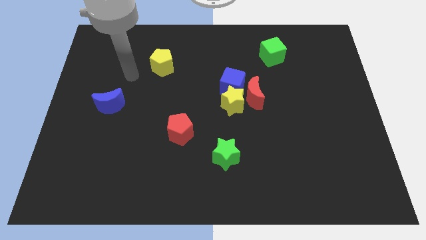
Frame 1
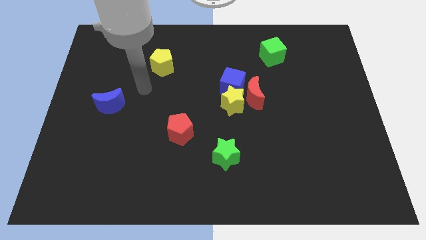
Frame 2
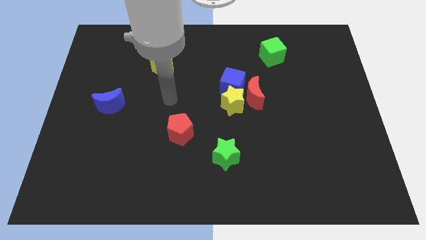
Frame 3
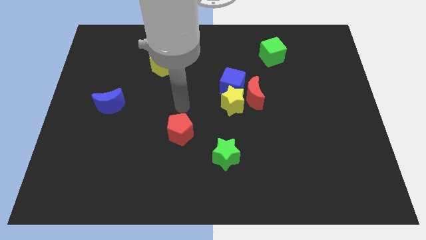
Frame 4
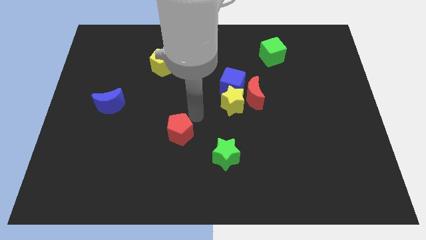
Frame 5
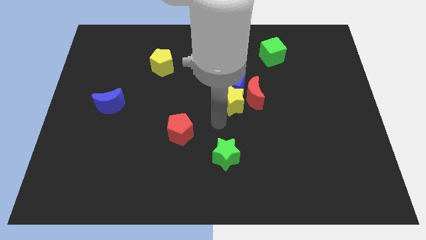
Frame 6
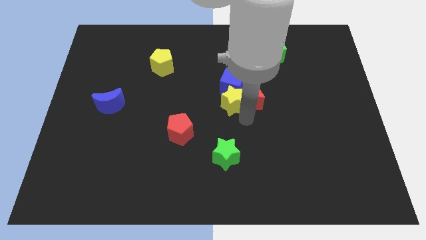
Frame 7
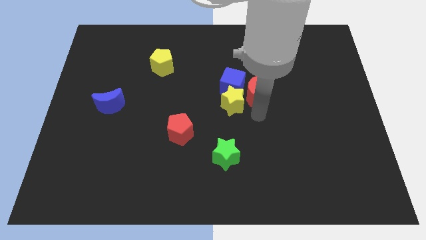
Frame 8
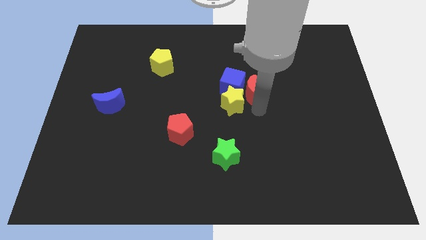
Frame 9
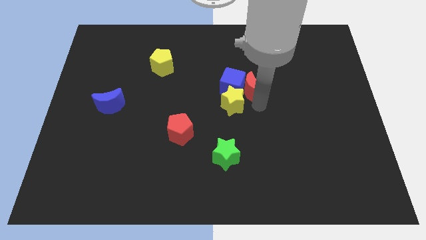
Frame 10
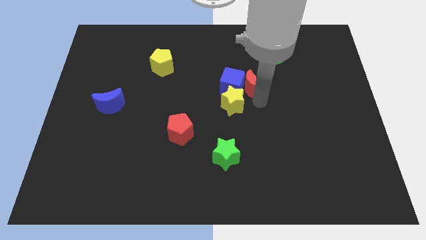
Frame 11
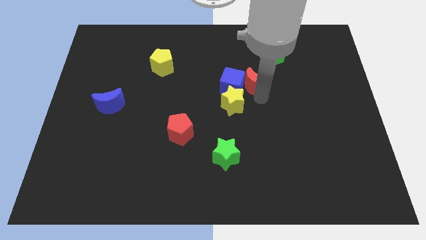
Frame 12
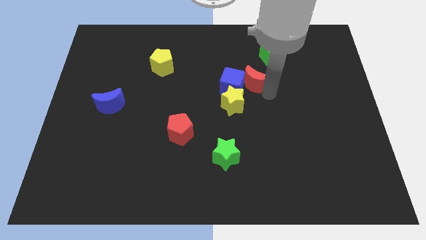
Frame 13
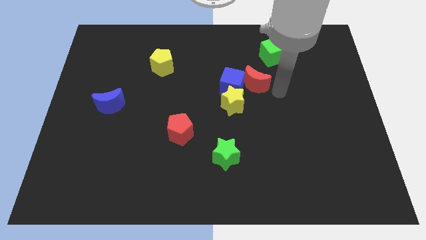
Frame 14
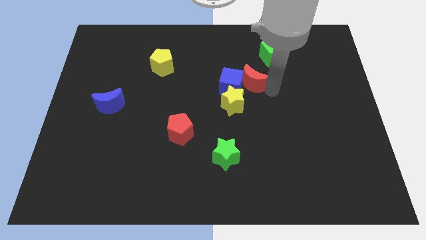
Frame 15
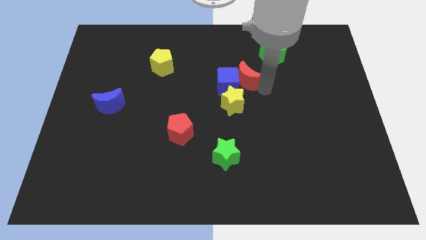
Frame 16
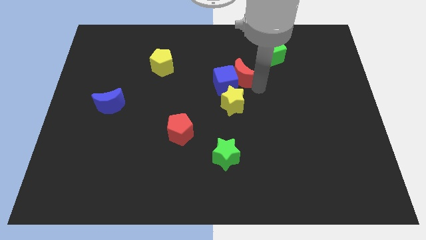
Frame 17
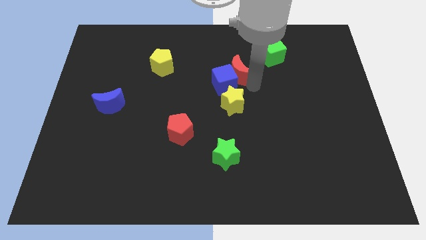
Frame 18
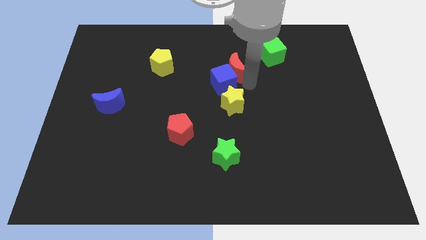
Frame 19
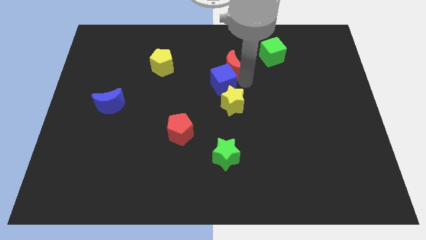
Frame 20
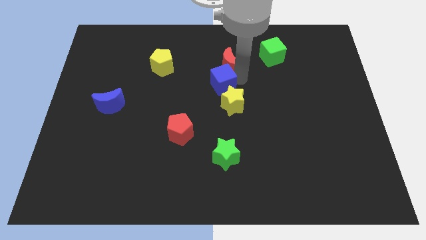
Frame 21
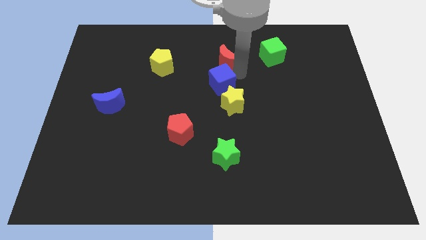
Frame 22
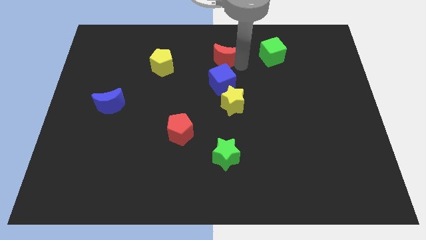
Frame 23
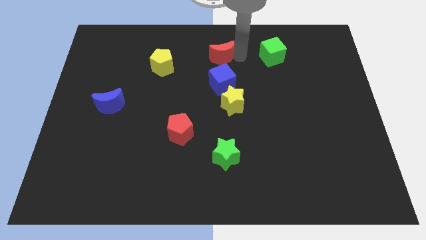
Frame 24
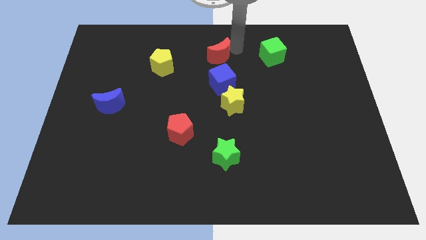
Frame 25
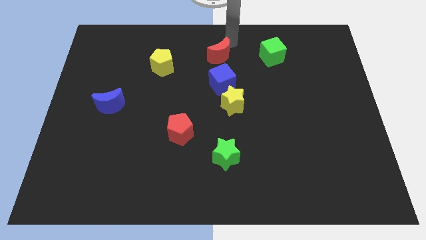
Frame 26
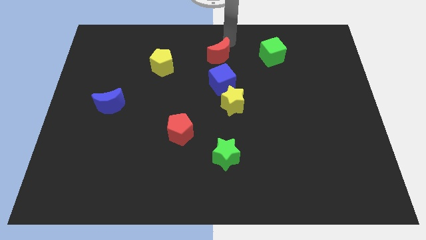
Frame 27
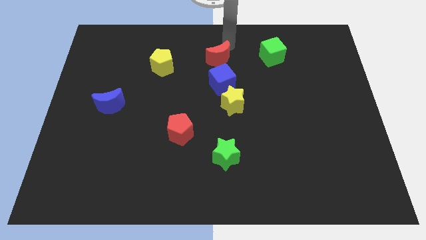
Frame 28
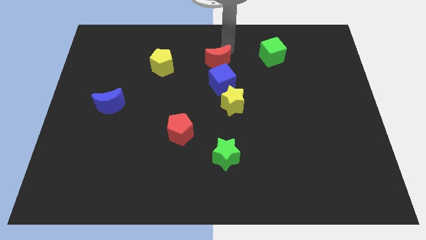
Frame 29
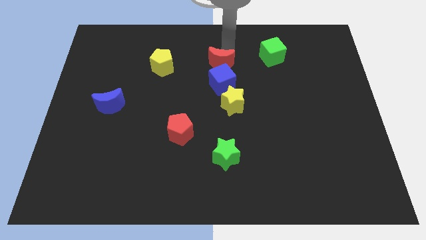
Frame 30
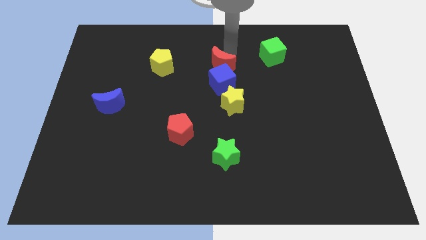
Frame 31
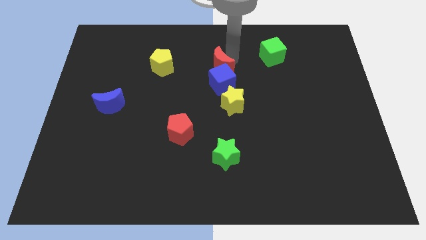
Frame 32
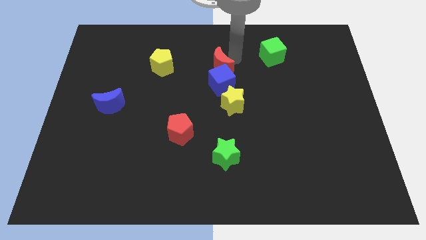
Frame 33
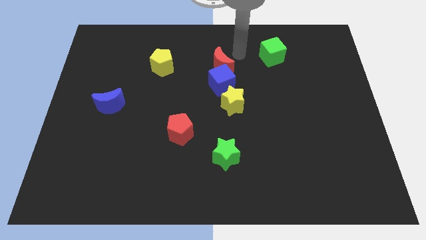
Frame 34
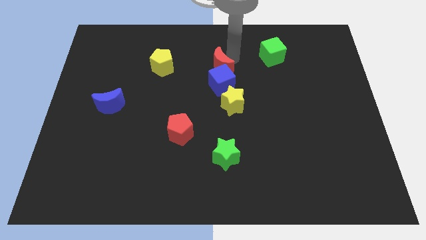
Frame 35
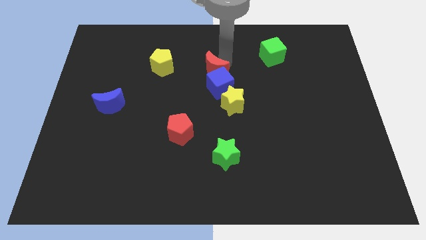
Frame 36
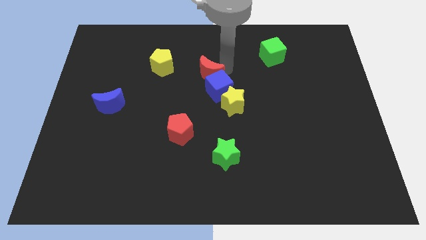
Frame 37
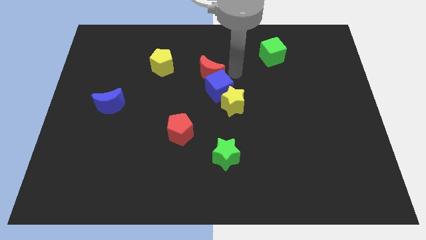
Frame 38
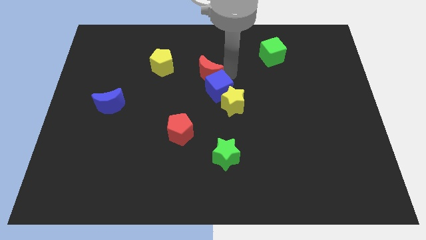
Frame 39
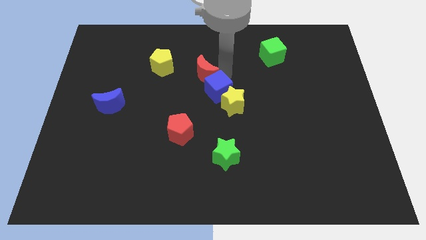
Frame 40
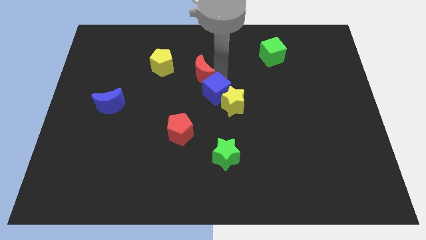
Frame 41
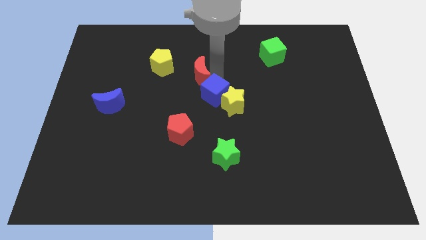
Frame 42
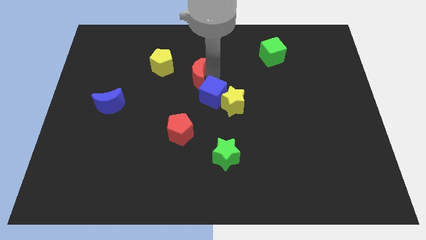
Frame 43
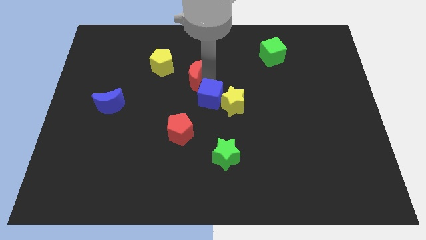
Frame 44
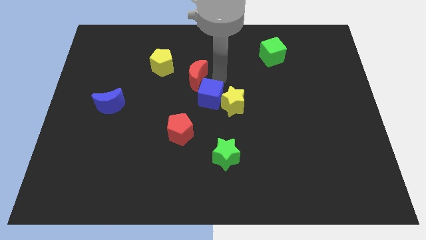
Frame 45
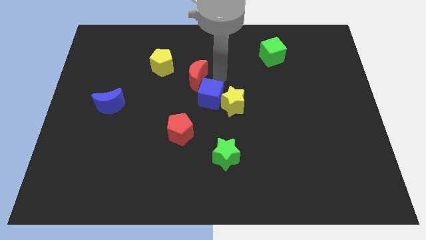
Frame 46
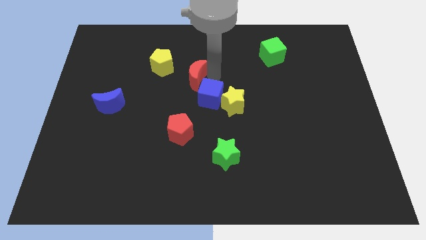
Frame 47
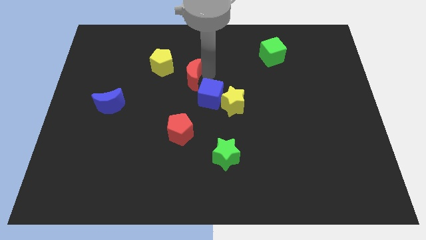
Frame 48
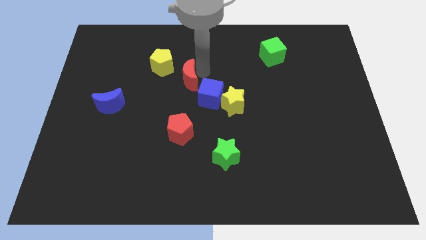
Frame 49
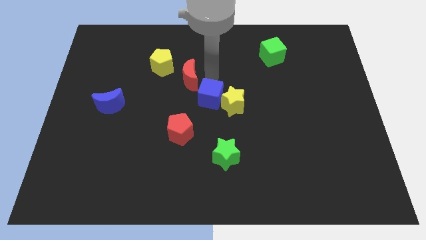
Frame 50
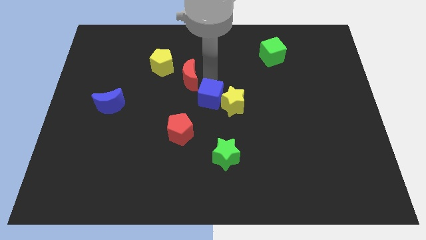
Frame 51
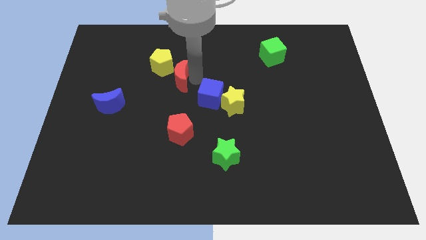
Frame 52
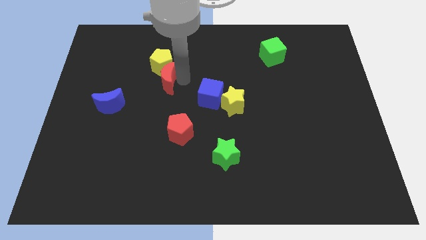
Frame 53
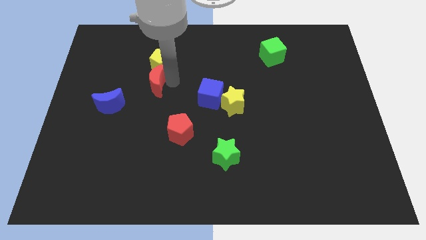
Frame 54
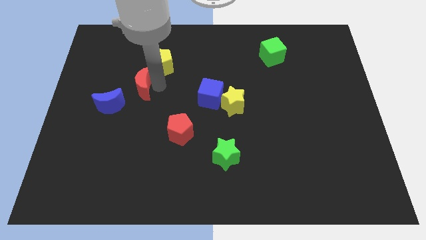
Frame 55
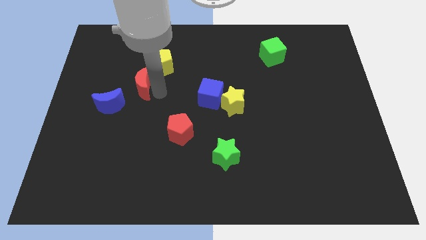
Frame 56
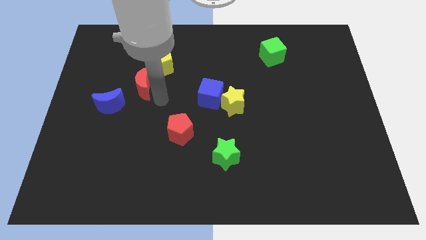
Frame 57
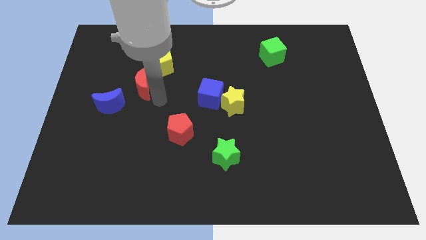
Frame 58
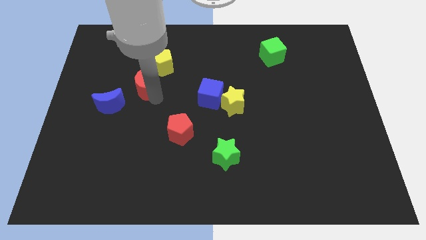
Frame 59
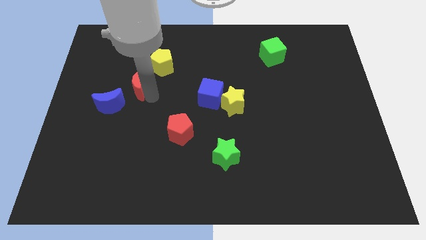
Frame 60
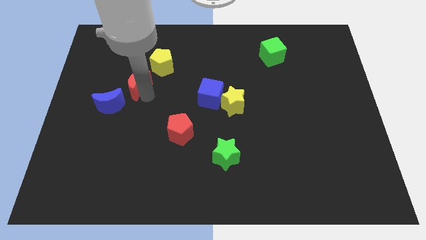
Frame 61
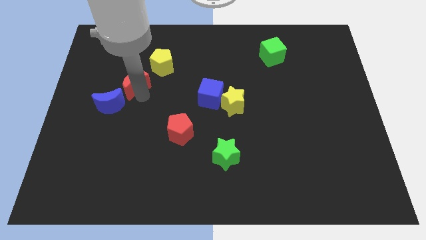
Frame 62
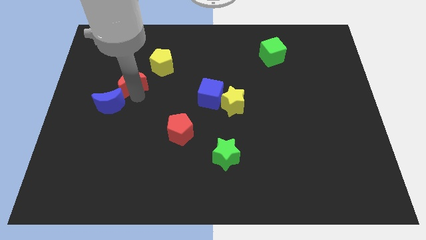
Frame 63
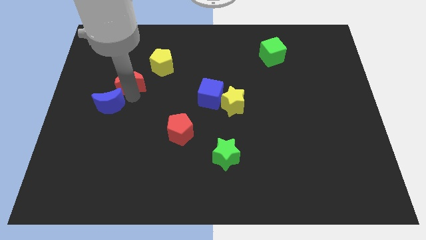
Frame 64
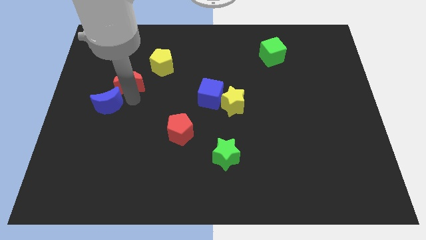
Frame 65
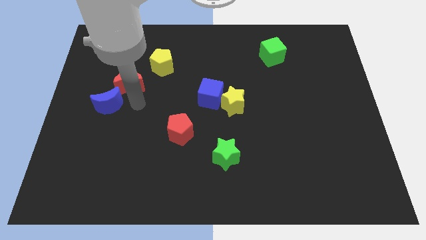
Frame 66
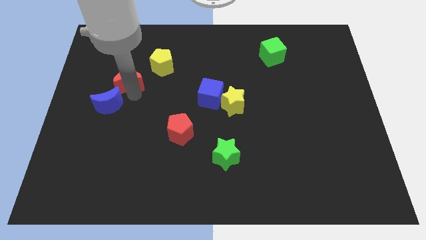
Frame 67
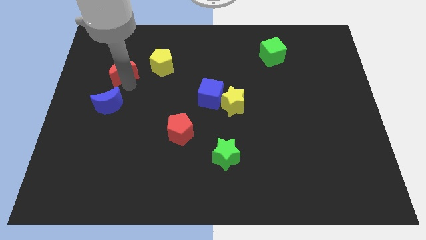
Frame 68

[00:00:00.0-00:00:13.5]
move the red moon just left of the yellow pentagon
